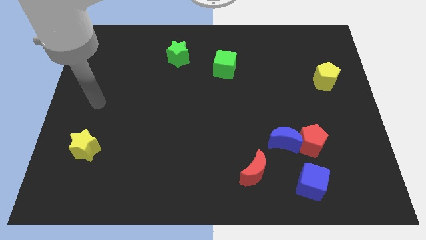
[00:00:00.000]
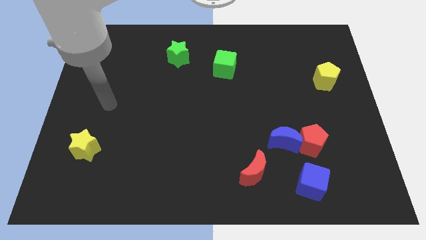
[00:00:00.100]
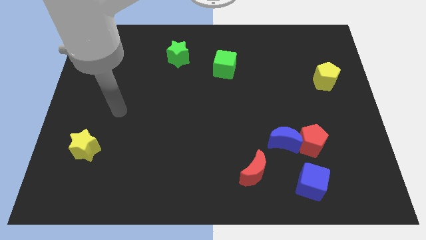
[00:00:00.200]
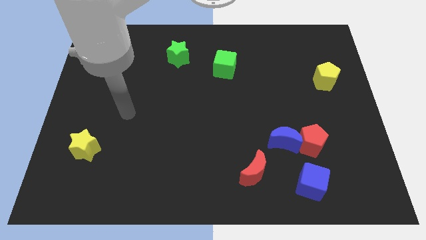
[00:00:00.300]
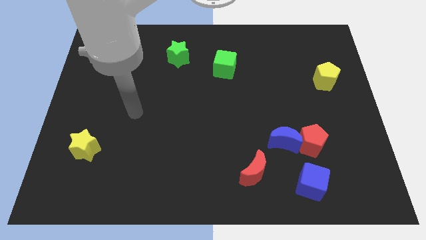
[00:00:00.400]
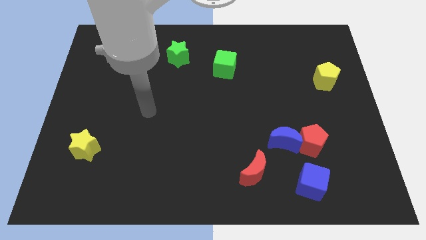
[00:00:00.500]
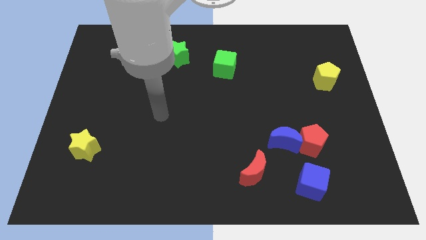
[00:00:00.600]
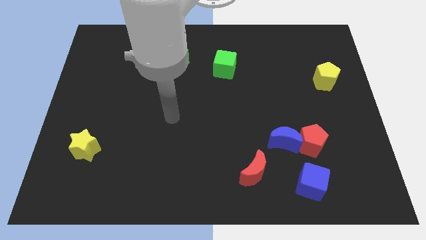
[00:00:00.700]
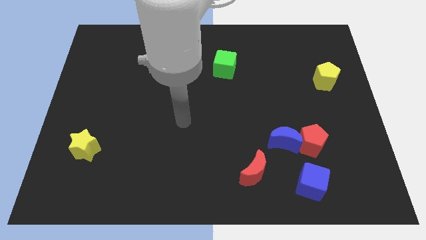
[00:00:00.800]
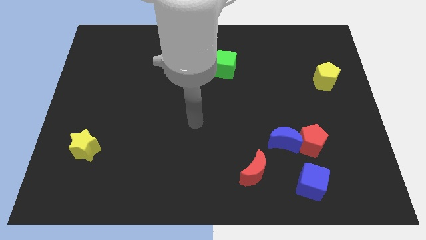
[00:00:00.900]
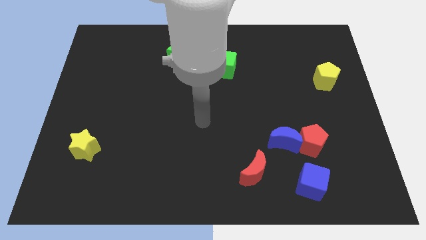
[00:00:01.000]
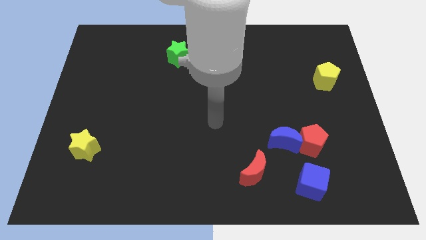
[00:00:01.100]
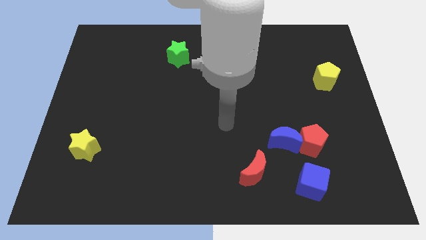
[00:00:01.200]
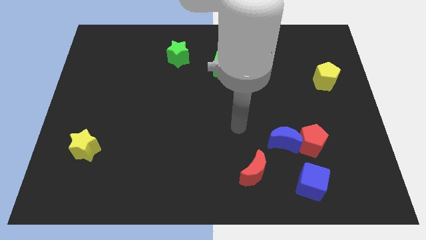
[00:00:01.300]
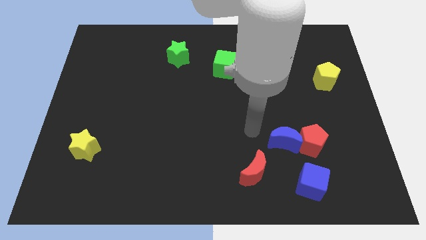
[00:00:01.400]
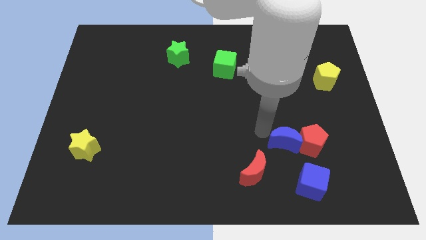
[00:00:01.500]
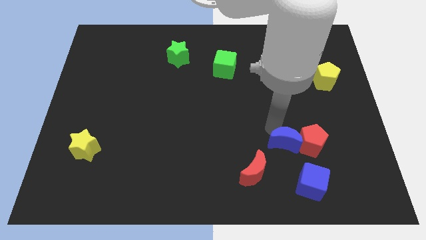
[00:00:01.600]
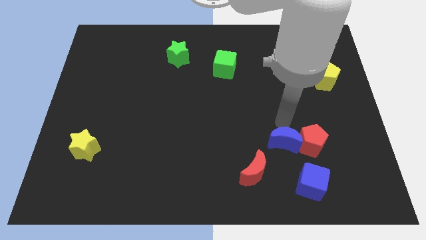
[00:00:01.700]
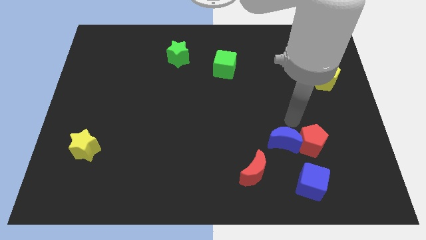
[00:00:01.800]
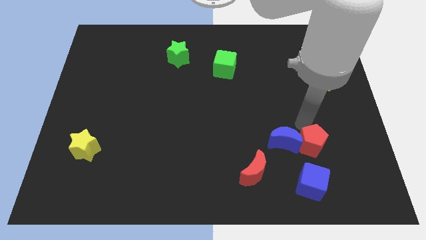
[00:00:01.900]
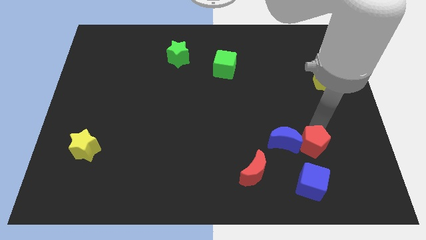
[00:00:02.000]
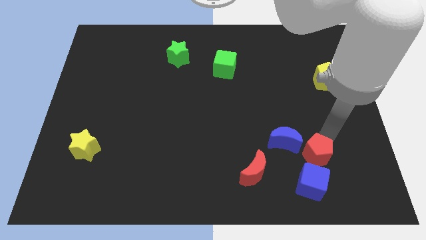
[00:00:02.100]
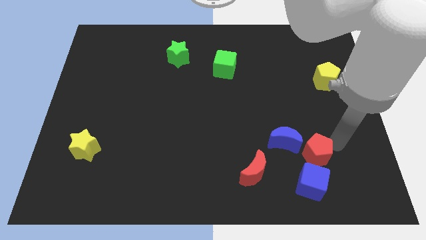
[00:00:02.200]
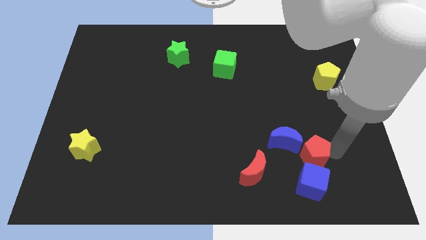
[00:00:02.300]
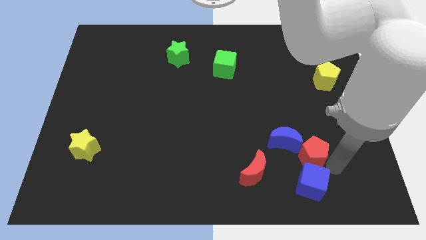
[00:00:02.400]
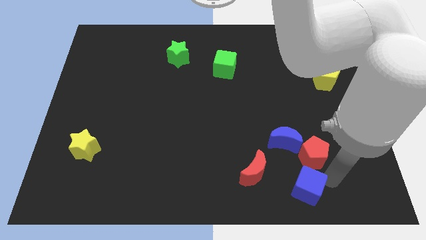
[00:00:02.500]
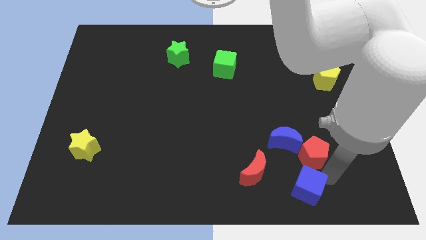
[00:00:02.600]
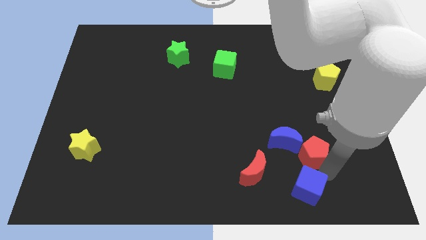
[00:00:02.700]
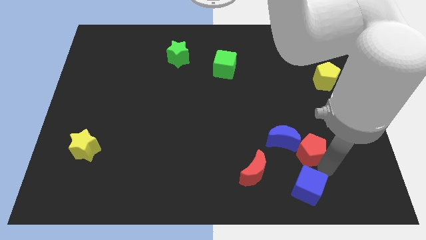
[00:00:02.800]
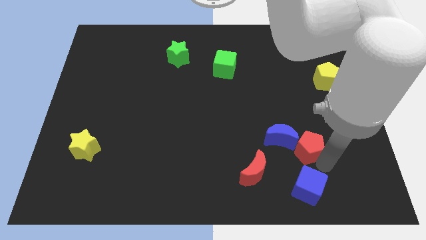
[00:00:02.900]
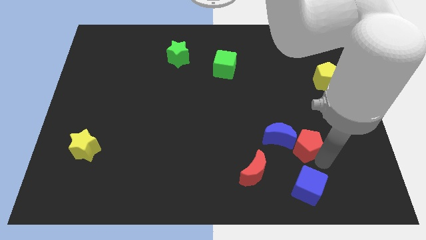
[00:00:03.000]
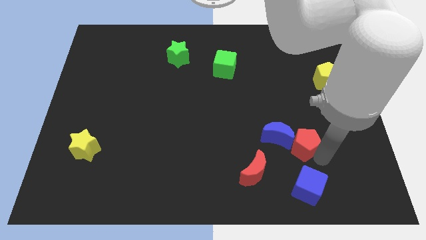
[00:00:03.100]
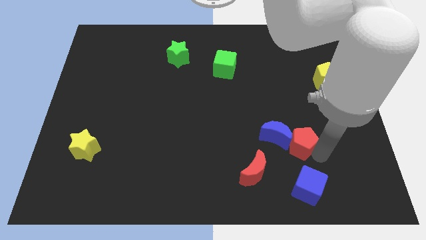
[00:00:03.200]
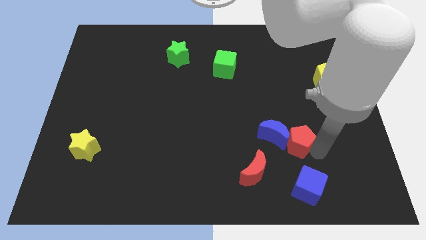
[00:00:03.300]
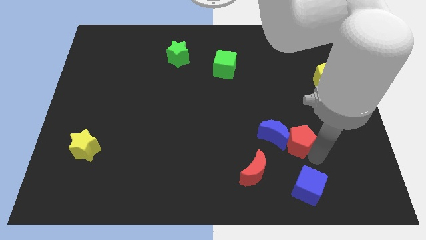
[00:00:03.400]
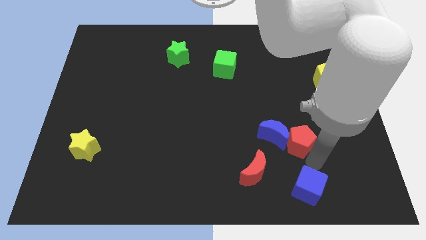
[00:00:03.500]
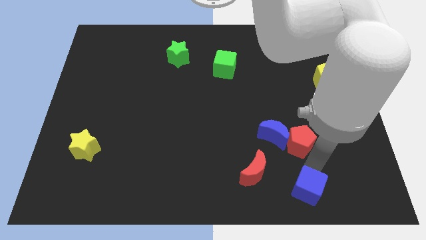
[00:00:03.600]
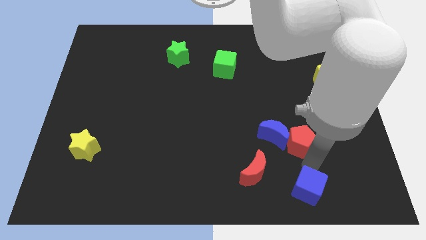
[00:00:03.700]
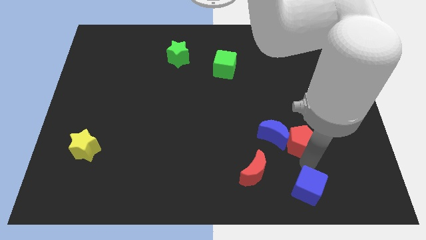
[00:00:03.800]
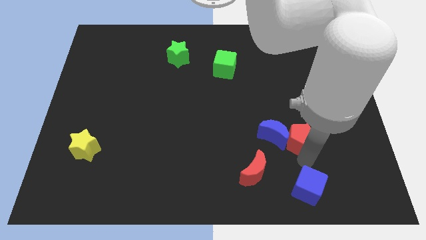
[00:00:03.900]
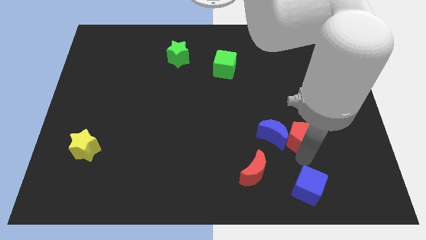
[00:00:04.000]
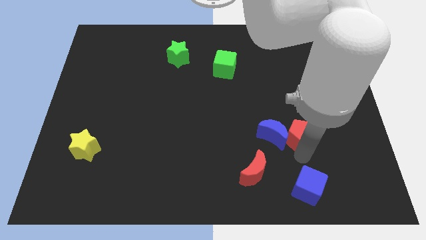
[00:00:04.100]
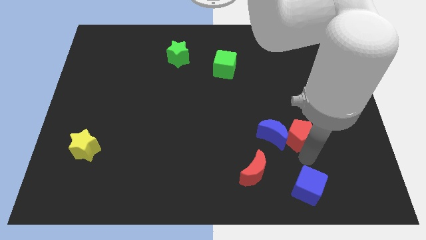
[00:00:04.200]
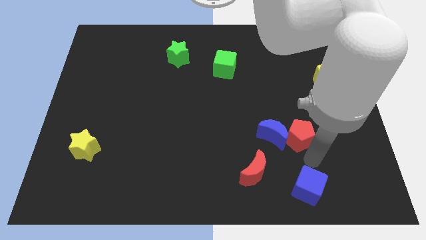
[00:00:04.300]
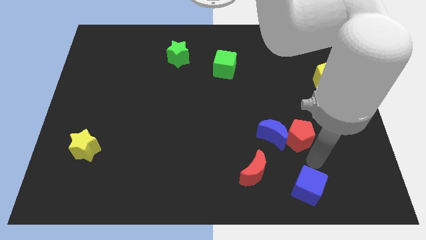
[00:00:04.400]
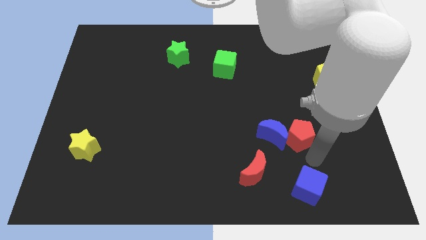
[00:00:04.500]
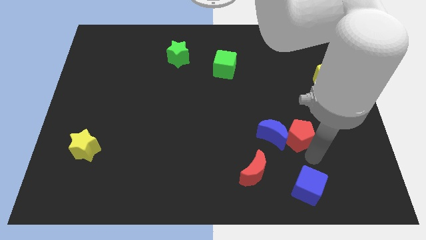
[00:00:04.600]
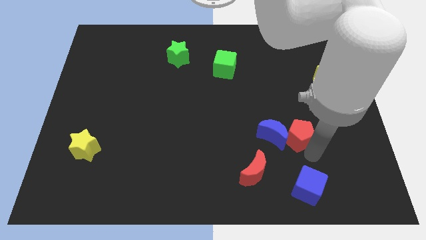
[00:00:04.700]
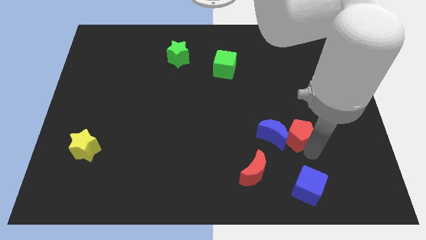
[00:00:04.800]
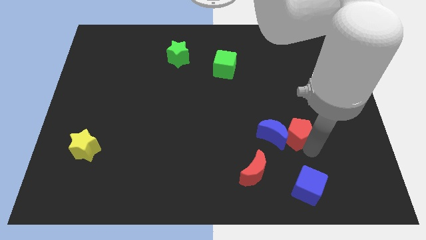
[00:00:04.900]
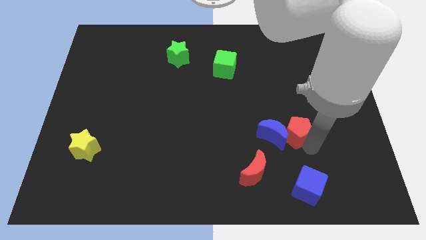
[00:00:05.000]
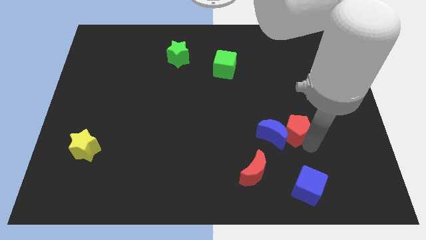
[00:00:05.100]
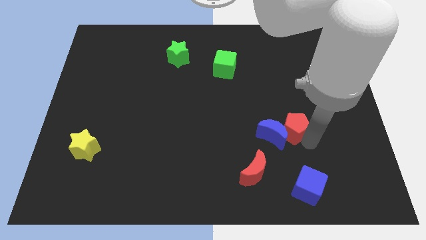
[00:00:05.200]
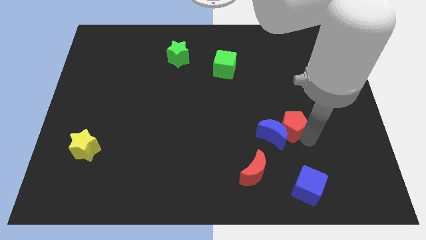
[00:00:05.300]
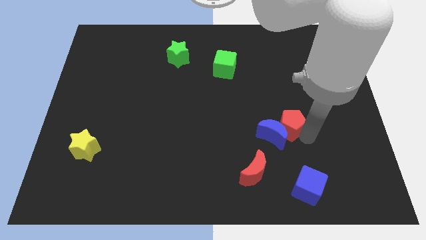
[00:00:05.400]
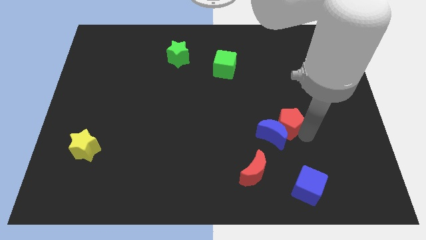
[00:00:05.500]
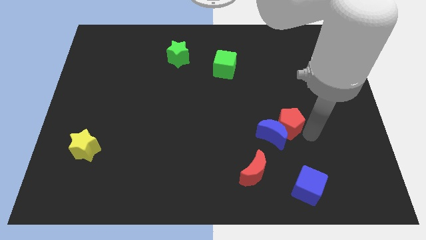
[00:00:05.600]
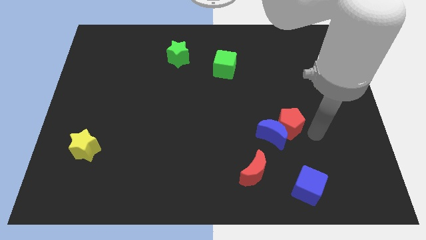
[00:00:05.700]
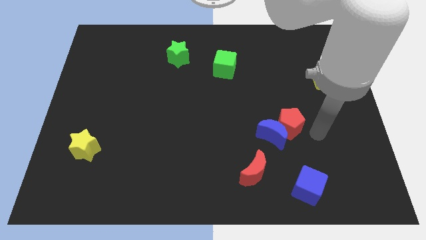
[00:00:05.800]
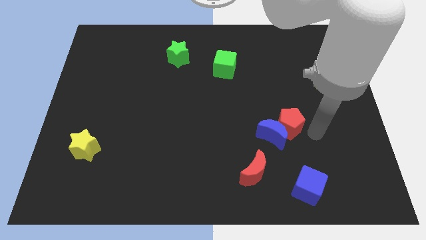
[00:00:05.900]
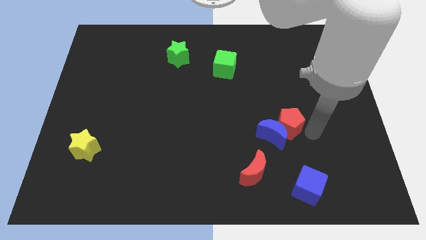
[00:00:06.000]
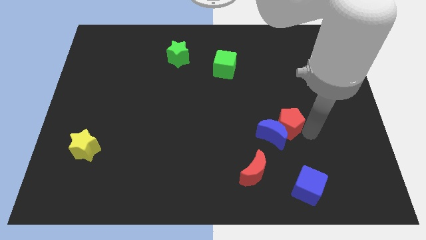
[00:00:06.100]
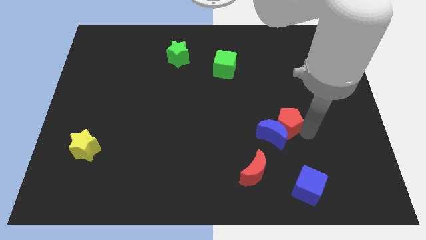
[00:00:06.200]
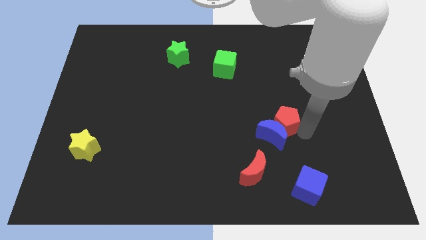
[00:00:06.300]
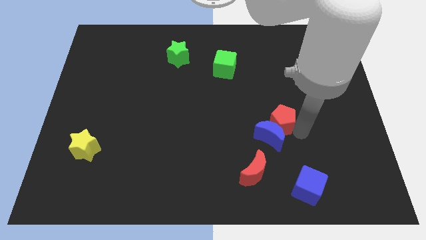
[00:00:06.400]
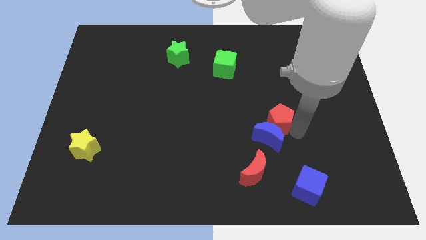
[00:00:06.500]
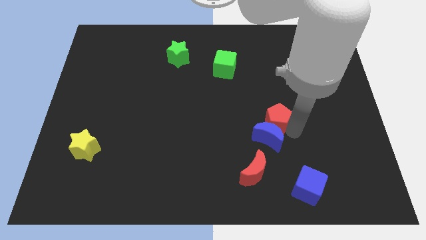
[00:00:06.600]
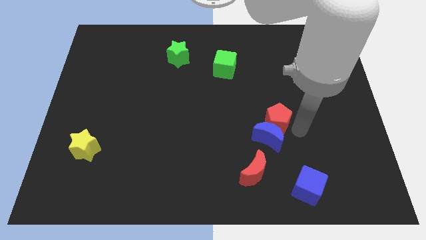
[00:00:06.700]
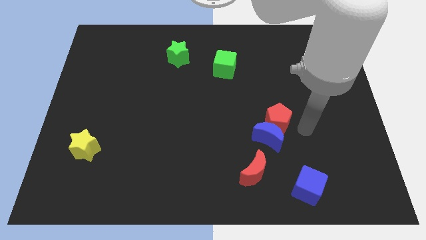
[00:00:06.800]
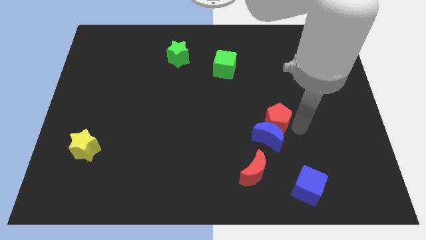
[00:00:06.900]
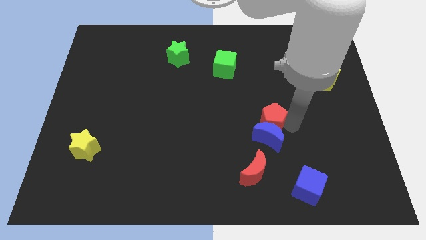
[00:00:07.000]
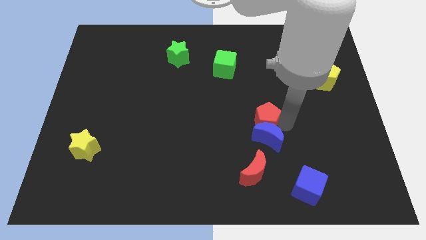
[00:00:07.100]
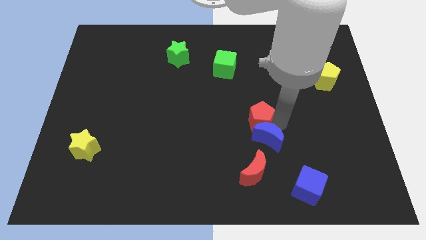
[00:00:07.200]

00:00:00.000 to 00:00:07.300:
slide the red pentagon to the center
